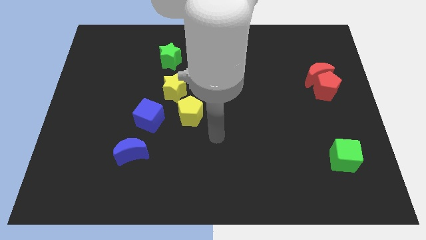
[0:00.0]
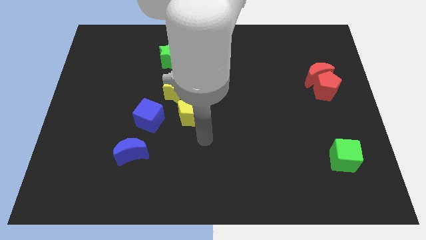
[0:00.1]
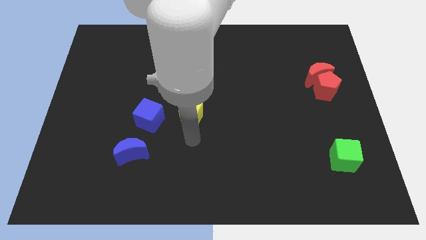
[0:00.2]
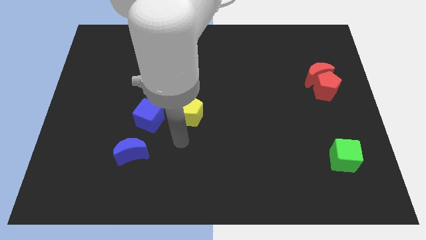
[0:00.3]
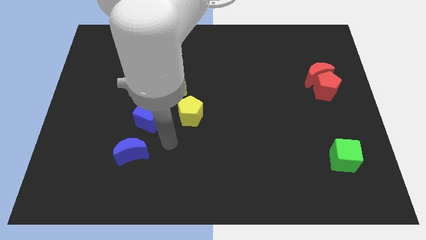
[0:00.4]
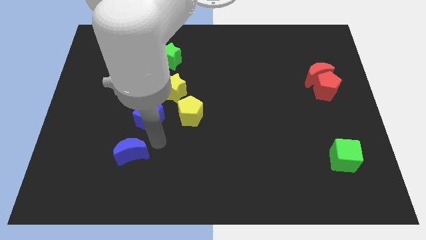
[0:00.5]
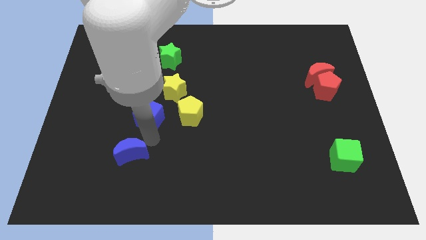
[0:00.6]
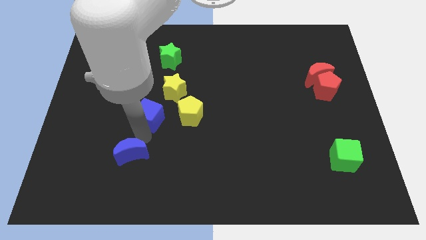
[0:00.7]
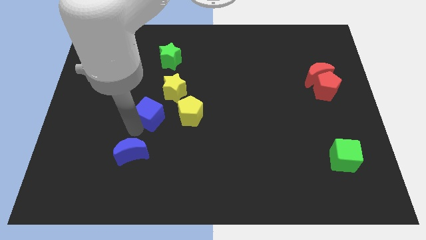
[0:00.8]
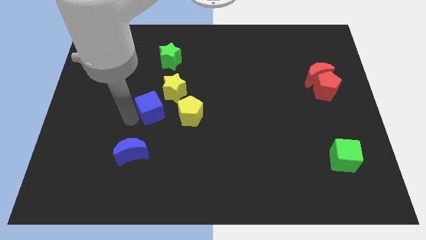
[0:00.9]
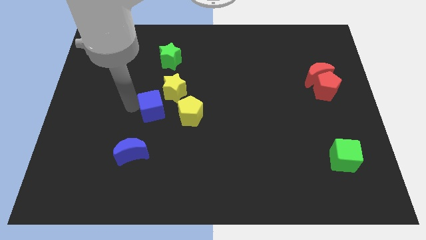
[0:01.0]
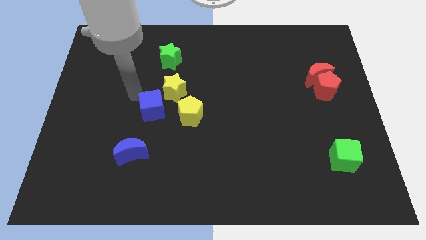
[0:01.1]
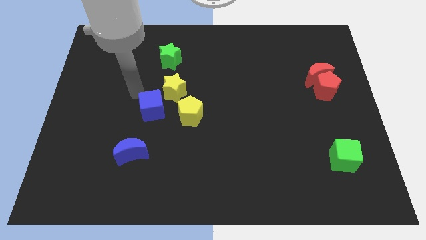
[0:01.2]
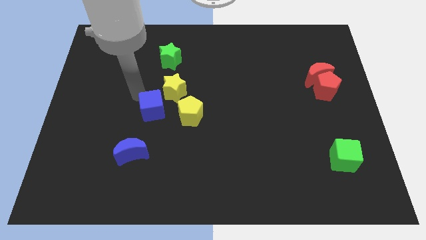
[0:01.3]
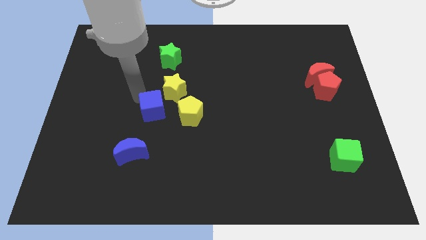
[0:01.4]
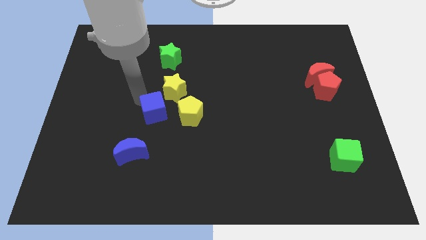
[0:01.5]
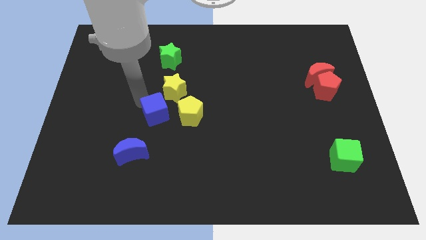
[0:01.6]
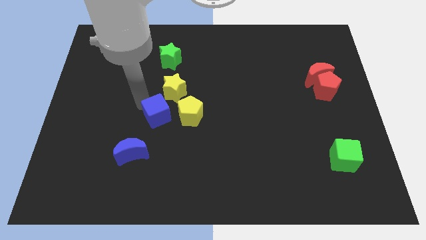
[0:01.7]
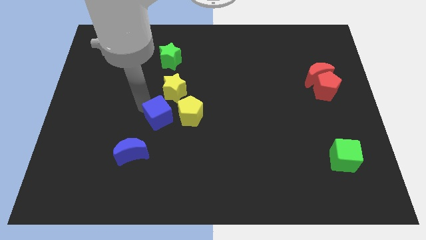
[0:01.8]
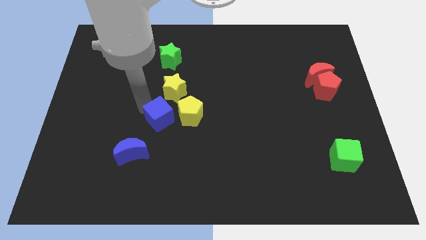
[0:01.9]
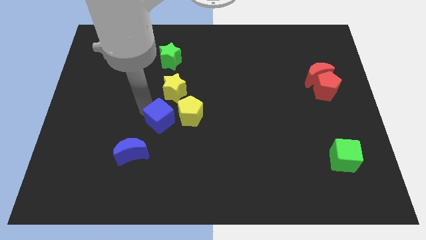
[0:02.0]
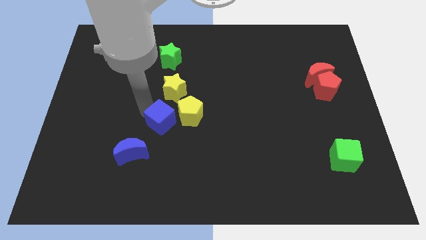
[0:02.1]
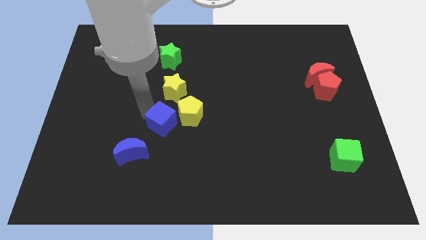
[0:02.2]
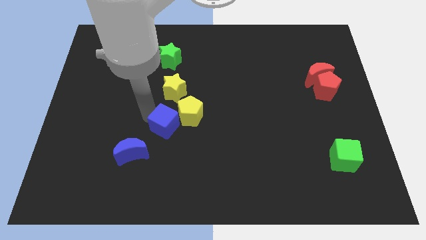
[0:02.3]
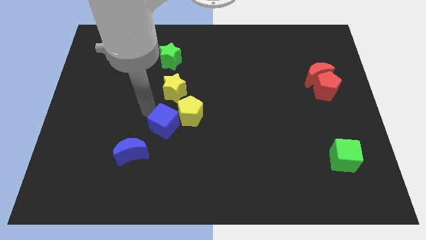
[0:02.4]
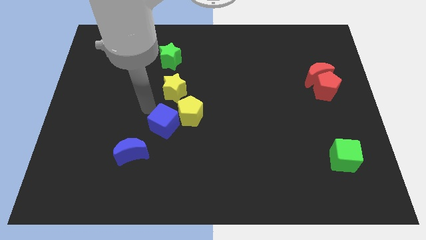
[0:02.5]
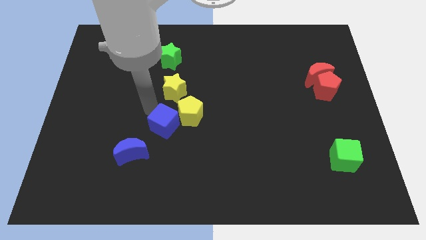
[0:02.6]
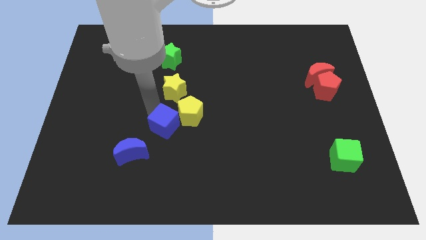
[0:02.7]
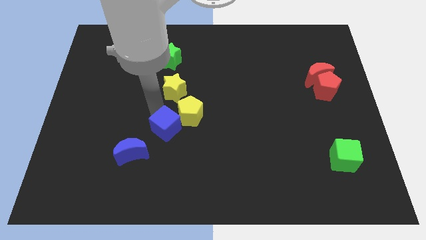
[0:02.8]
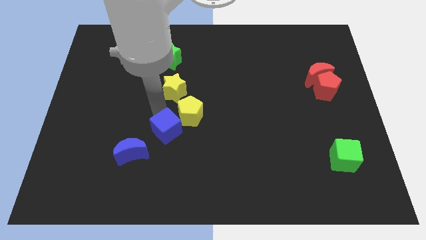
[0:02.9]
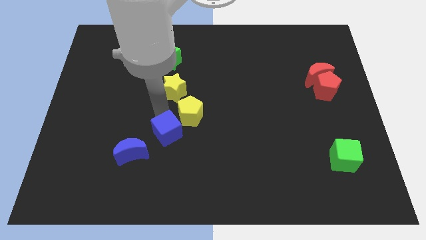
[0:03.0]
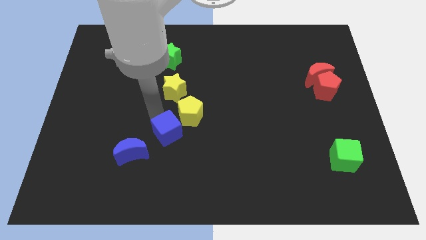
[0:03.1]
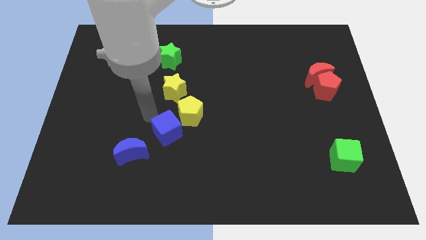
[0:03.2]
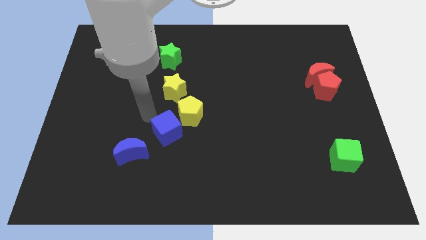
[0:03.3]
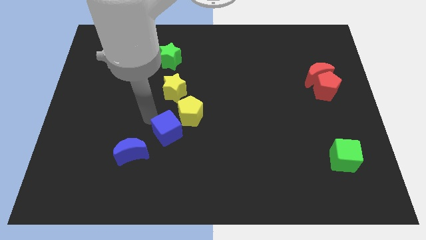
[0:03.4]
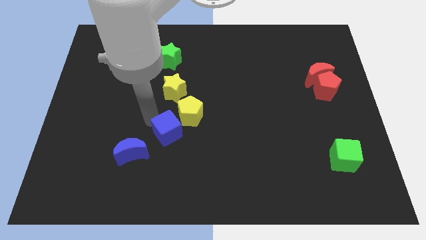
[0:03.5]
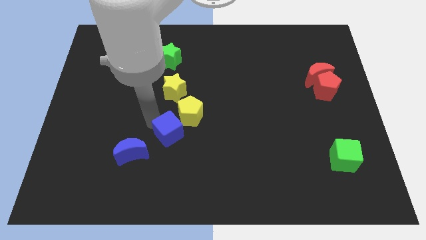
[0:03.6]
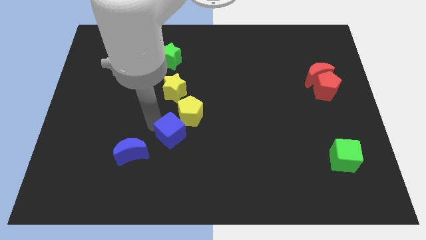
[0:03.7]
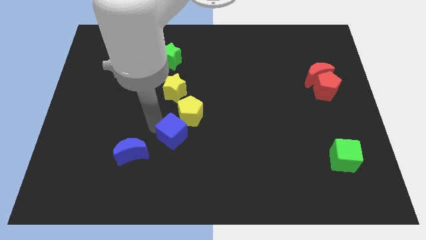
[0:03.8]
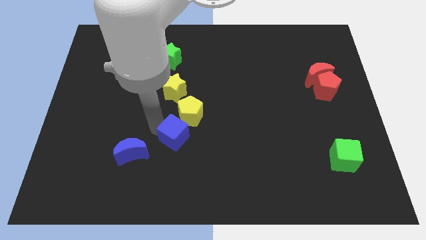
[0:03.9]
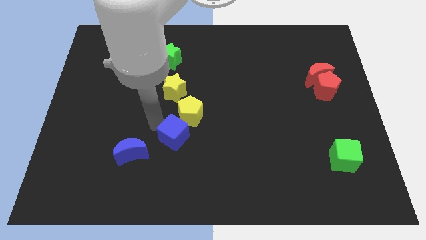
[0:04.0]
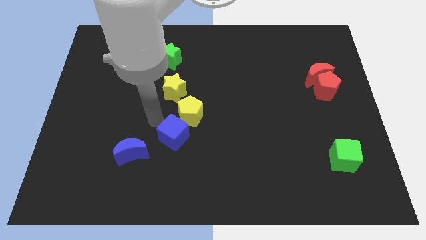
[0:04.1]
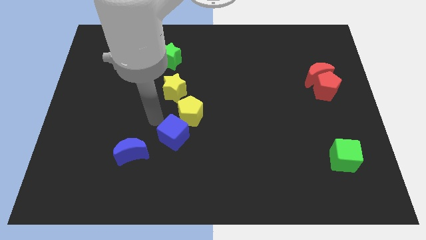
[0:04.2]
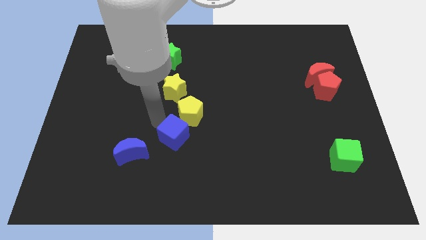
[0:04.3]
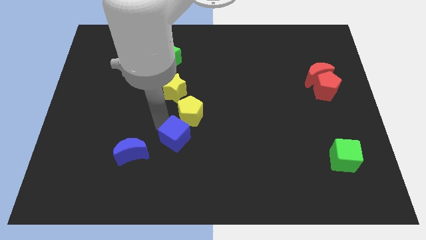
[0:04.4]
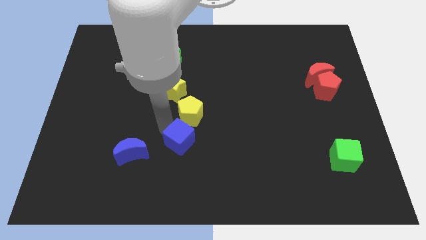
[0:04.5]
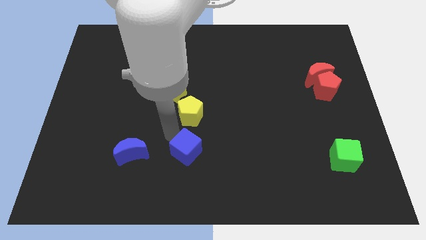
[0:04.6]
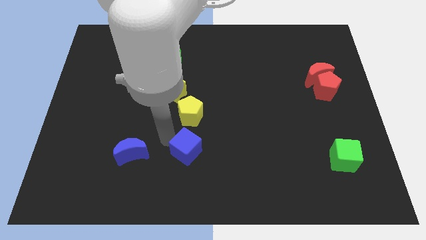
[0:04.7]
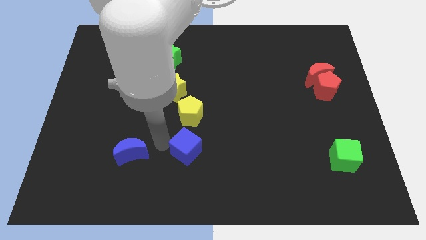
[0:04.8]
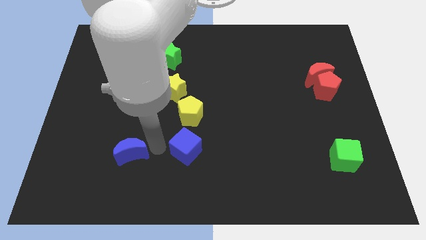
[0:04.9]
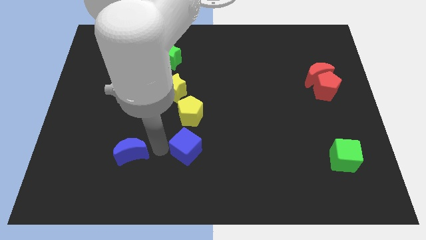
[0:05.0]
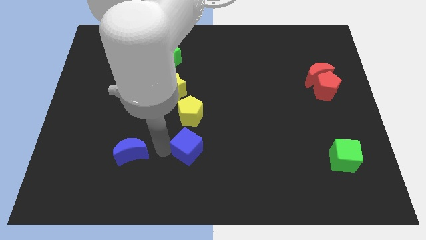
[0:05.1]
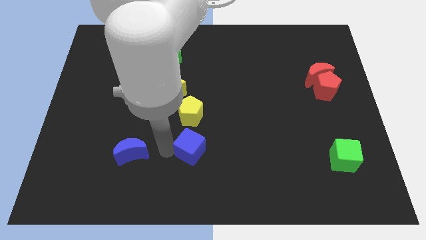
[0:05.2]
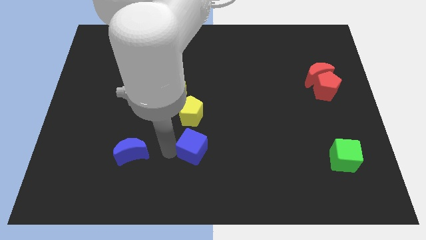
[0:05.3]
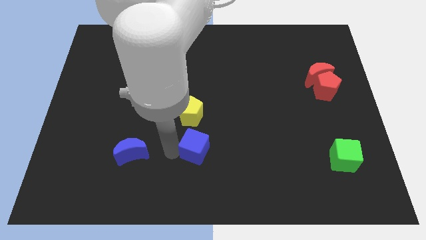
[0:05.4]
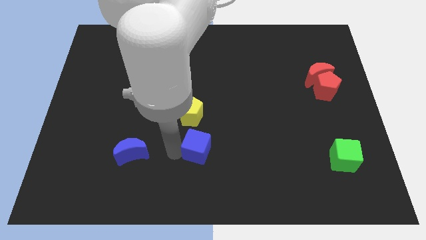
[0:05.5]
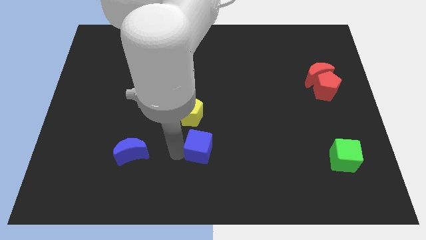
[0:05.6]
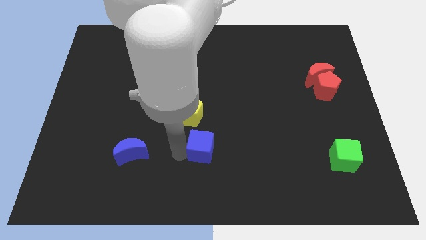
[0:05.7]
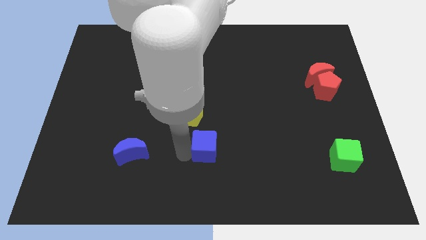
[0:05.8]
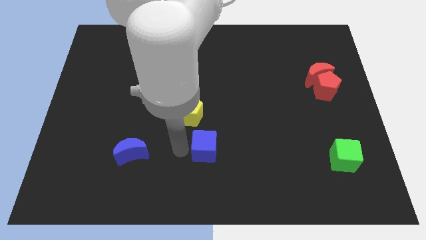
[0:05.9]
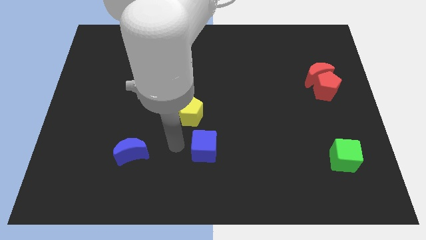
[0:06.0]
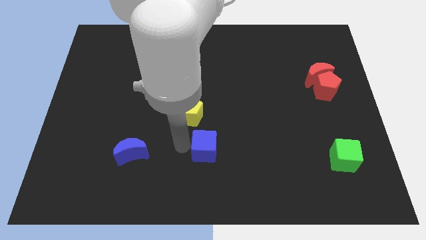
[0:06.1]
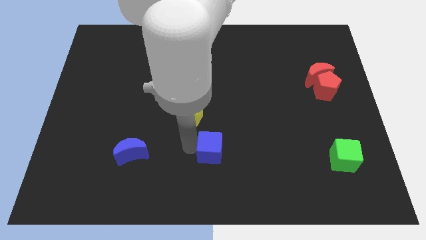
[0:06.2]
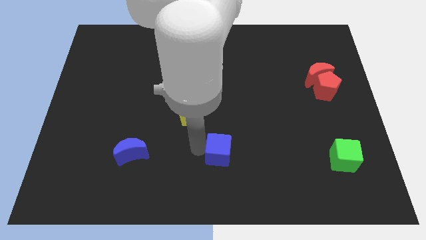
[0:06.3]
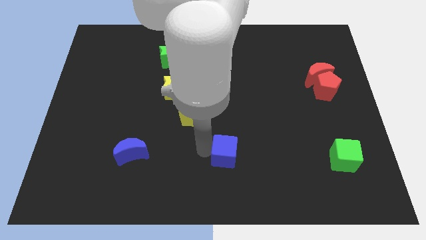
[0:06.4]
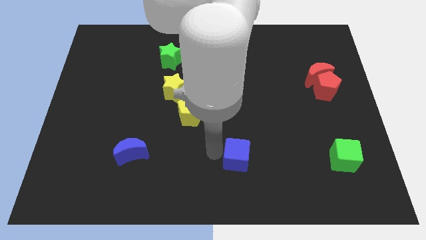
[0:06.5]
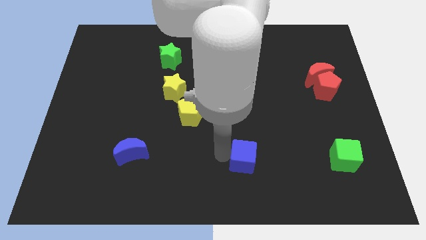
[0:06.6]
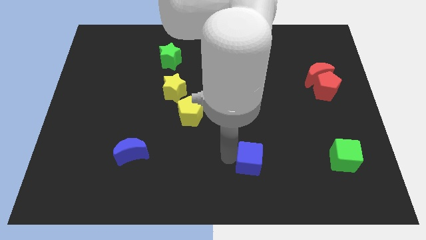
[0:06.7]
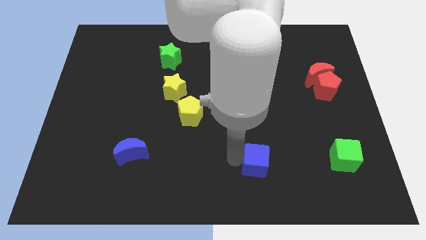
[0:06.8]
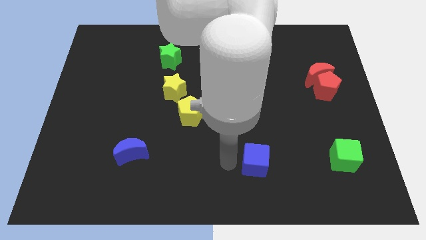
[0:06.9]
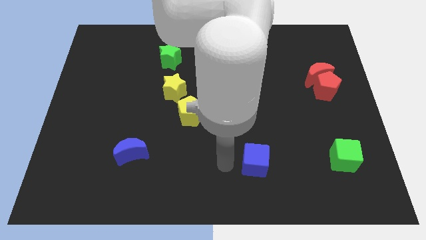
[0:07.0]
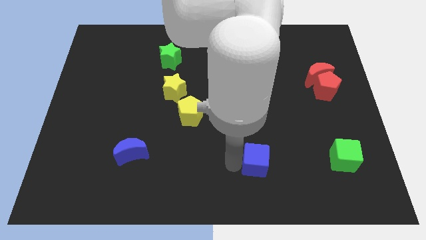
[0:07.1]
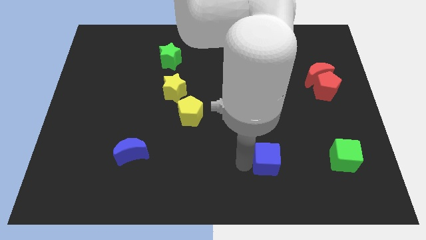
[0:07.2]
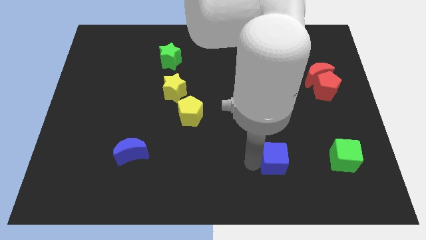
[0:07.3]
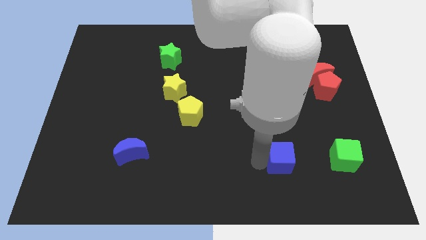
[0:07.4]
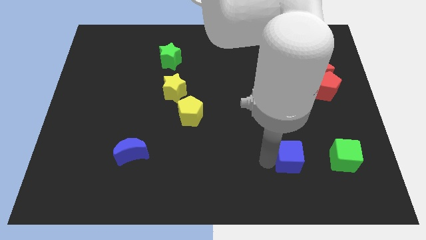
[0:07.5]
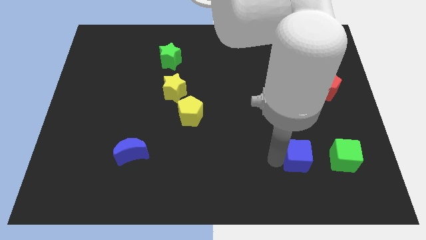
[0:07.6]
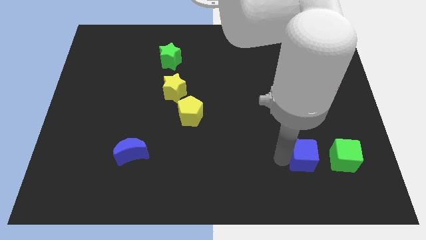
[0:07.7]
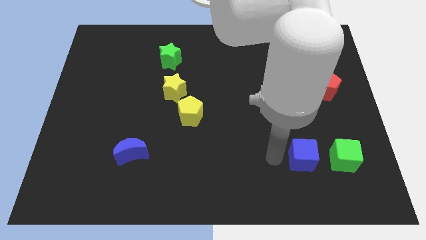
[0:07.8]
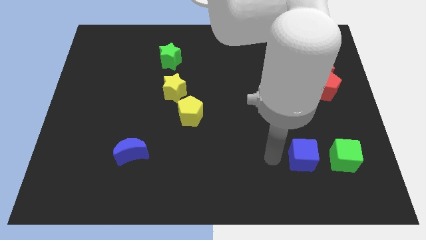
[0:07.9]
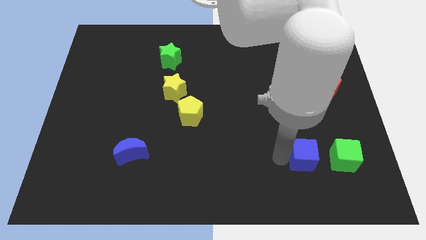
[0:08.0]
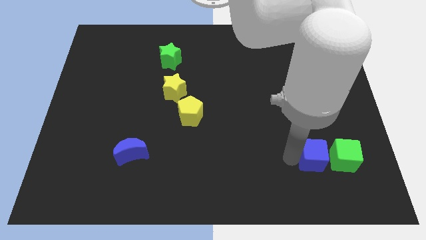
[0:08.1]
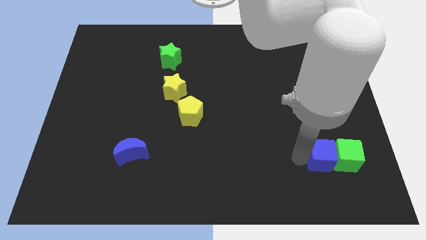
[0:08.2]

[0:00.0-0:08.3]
put the blue cube next to the green cube
